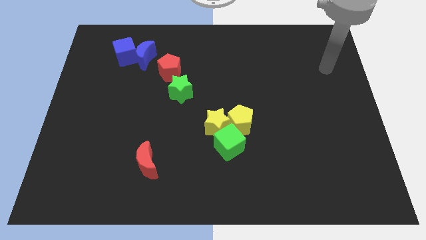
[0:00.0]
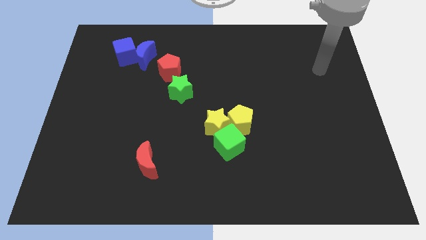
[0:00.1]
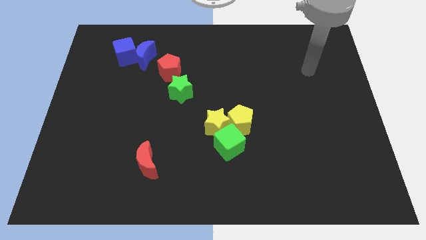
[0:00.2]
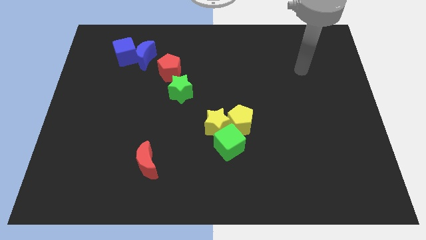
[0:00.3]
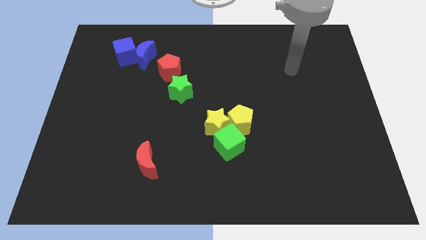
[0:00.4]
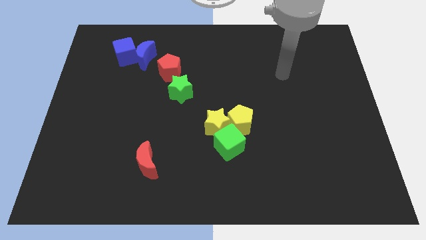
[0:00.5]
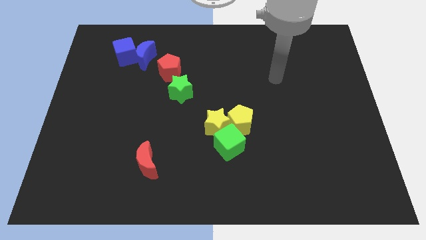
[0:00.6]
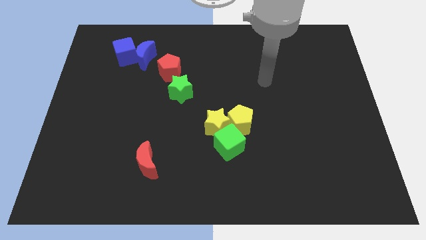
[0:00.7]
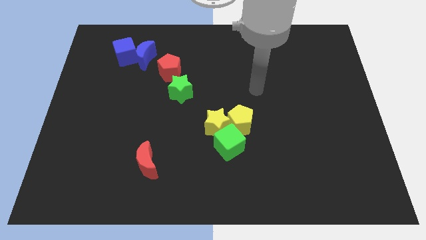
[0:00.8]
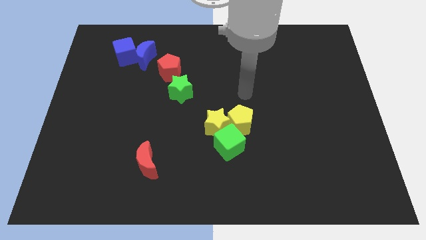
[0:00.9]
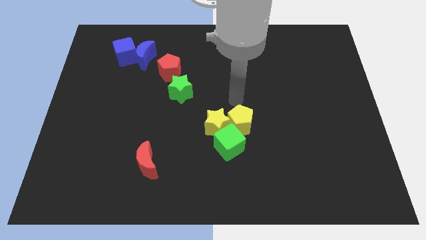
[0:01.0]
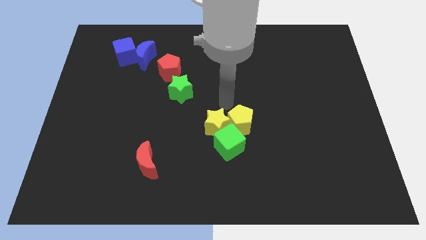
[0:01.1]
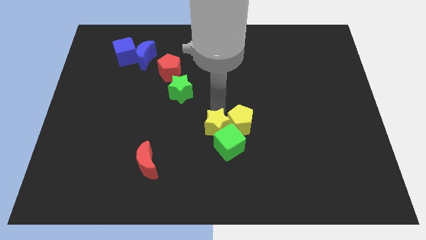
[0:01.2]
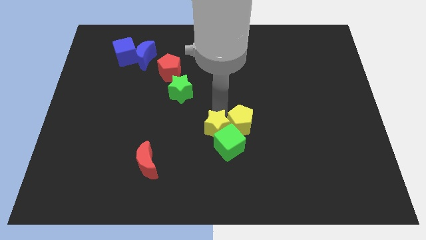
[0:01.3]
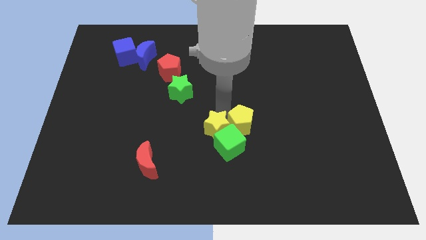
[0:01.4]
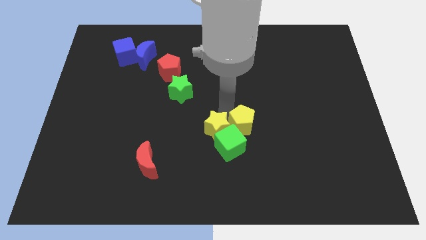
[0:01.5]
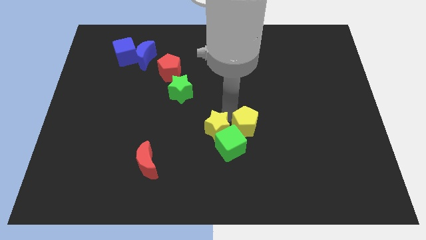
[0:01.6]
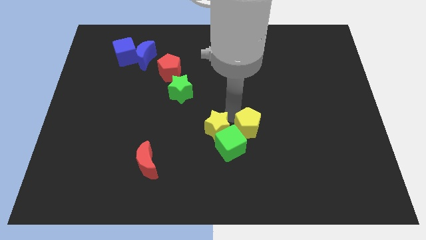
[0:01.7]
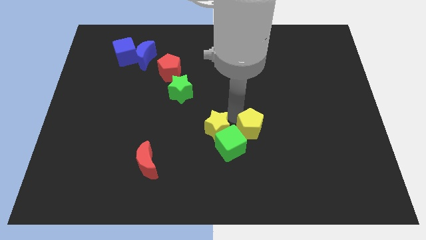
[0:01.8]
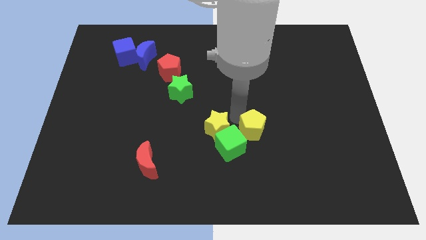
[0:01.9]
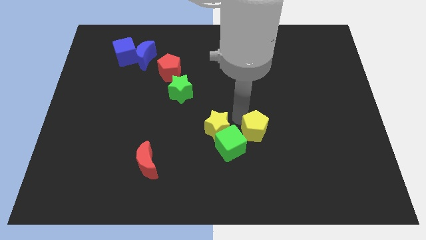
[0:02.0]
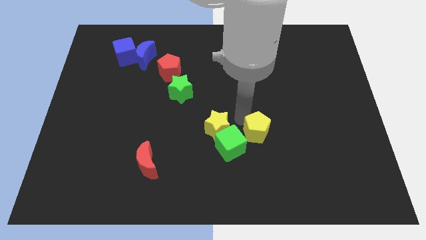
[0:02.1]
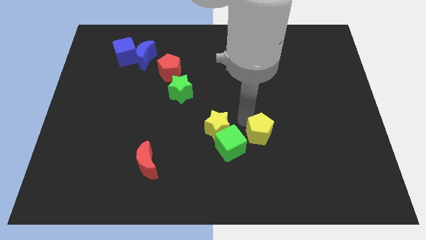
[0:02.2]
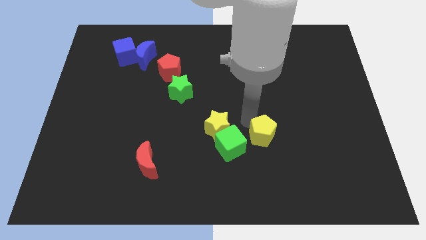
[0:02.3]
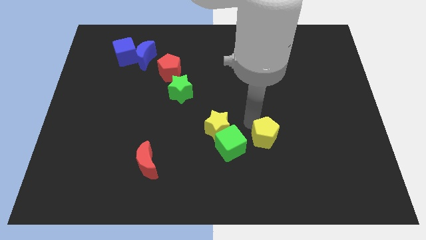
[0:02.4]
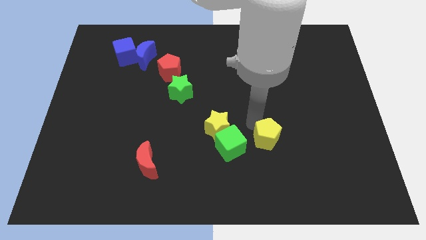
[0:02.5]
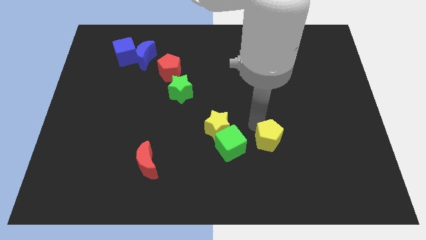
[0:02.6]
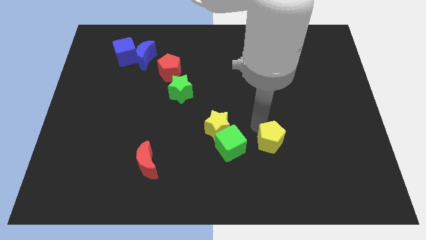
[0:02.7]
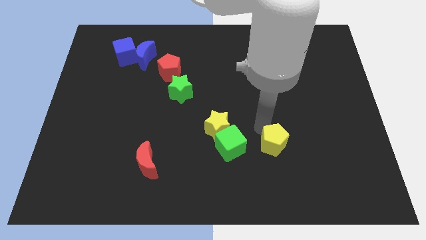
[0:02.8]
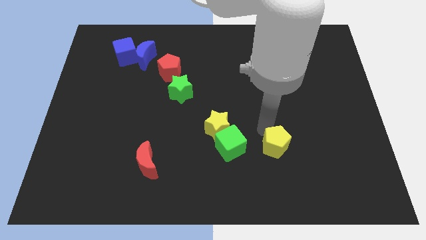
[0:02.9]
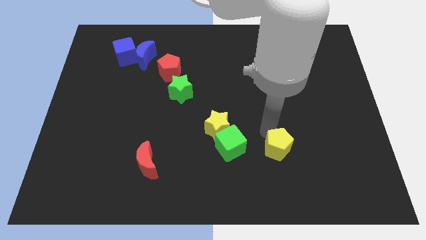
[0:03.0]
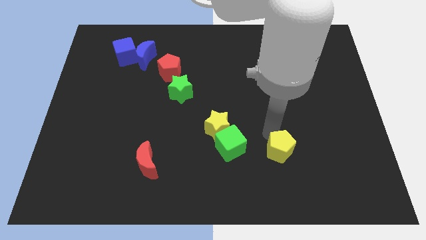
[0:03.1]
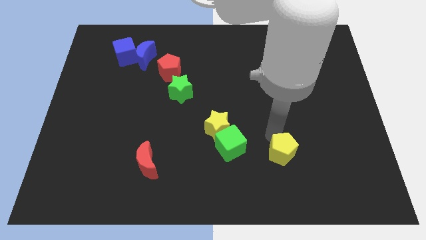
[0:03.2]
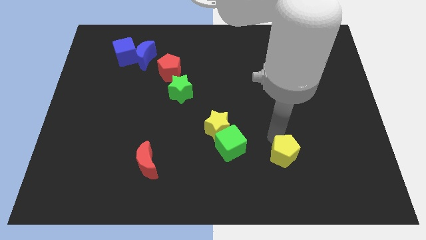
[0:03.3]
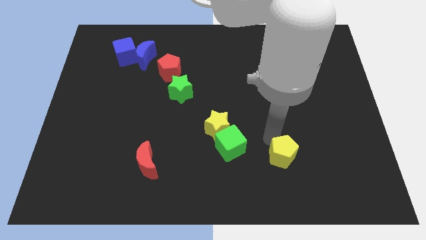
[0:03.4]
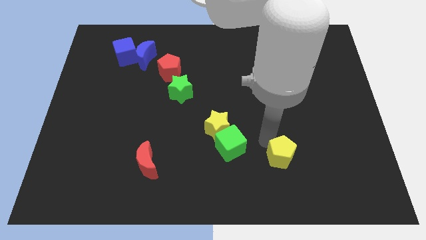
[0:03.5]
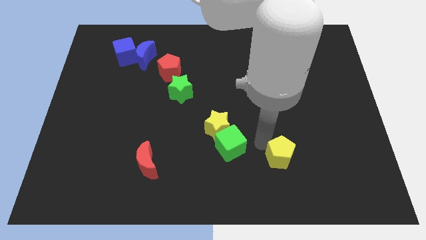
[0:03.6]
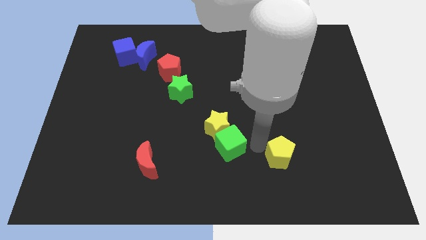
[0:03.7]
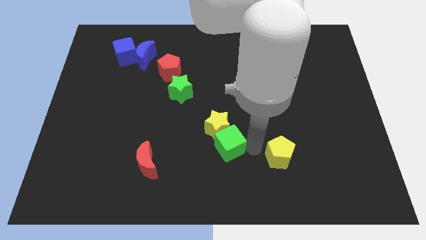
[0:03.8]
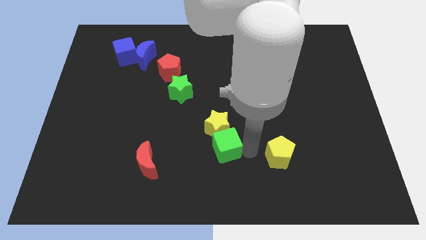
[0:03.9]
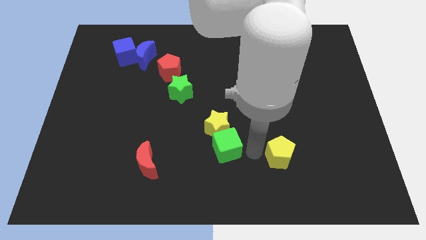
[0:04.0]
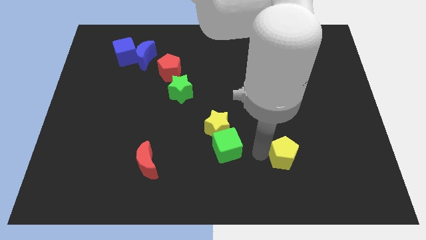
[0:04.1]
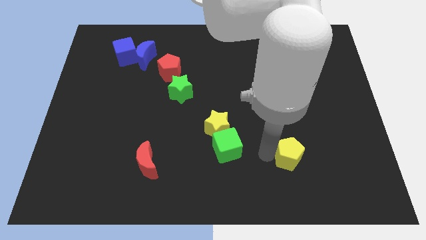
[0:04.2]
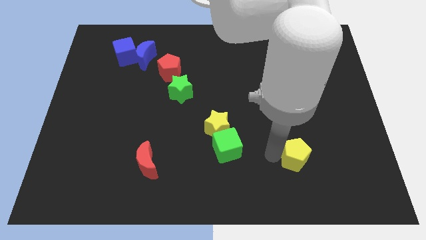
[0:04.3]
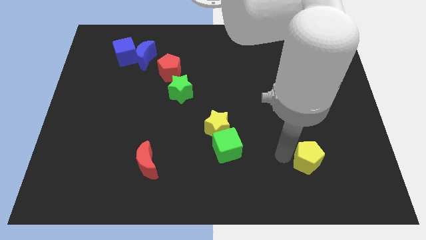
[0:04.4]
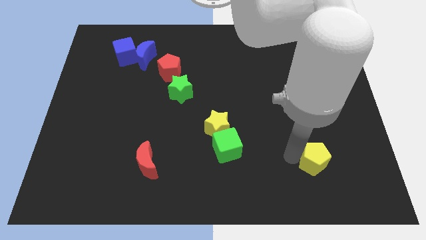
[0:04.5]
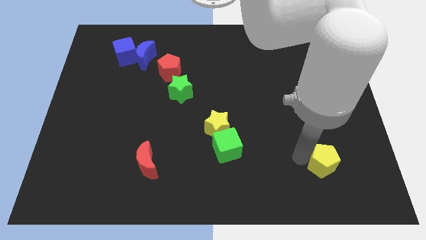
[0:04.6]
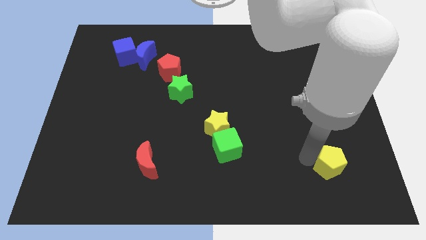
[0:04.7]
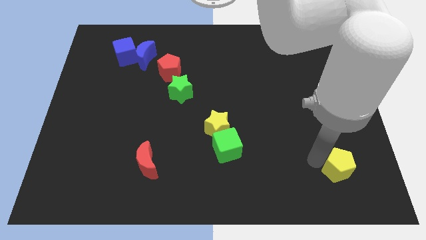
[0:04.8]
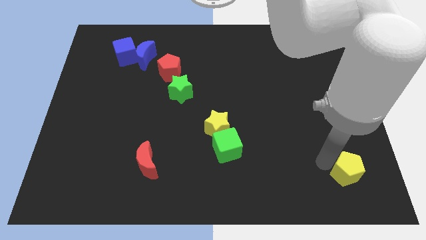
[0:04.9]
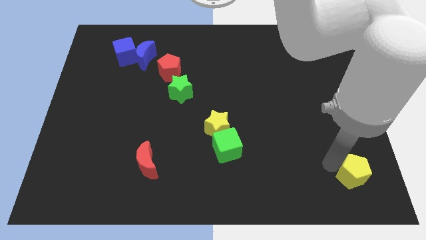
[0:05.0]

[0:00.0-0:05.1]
put the yellow pentagon to the lower right corner

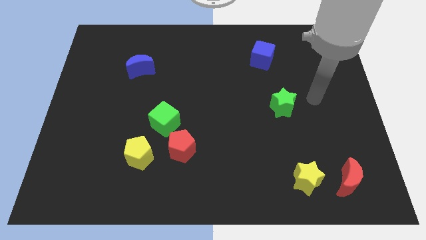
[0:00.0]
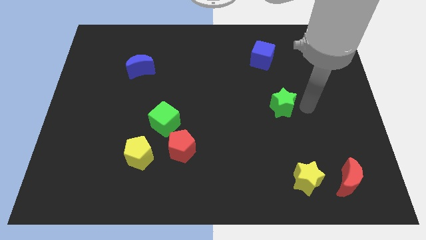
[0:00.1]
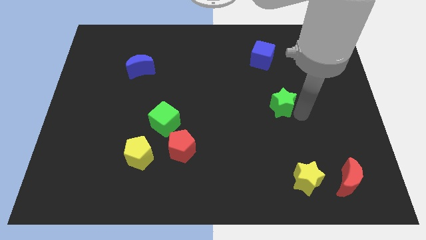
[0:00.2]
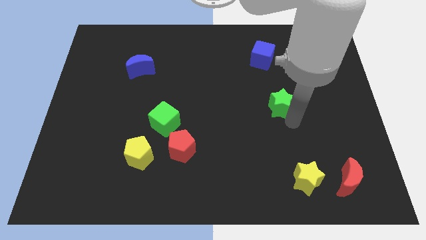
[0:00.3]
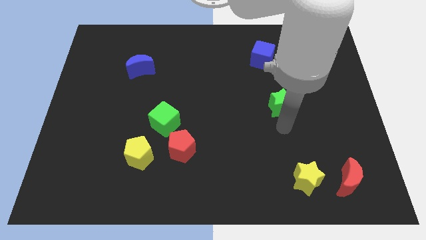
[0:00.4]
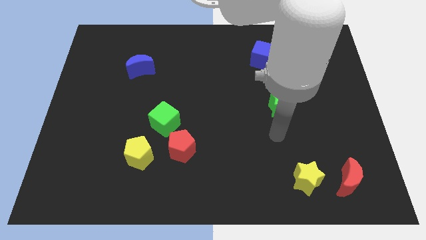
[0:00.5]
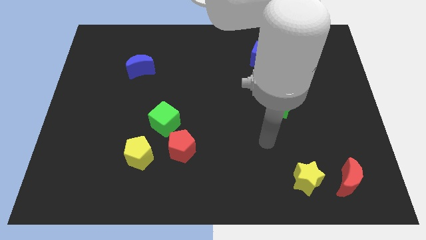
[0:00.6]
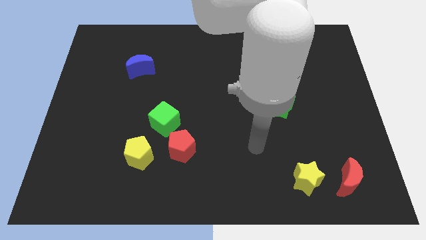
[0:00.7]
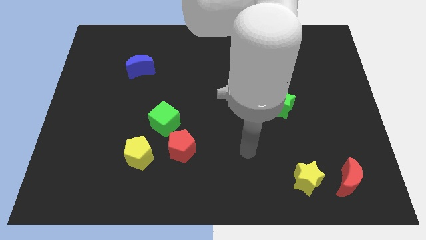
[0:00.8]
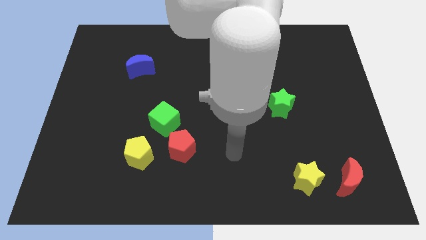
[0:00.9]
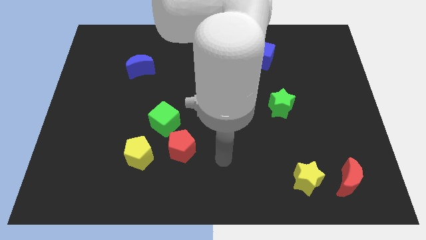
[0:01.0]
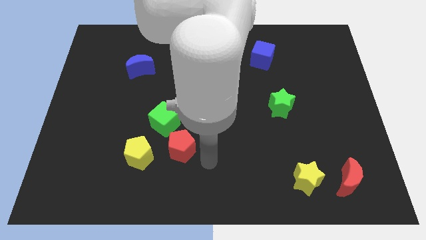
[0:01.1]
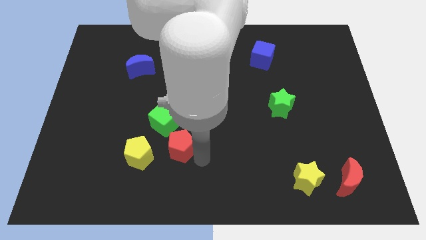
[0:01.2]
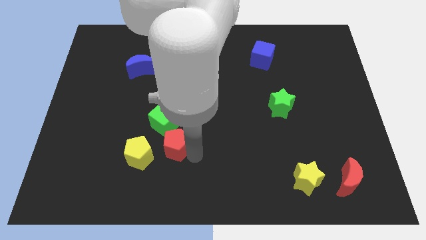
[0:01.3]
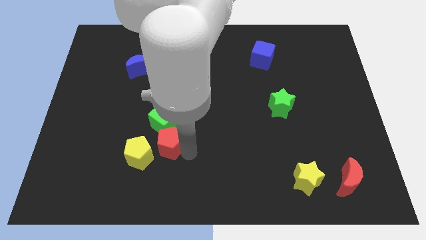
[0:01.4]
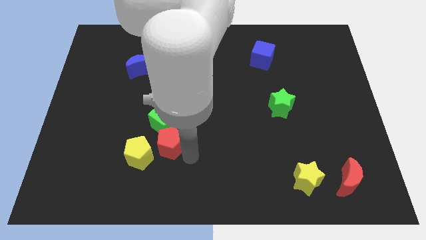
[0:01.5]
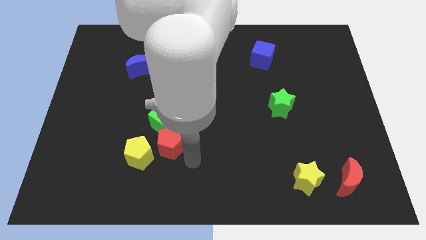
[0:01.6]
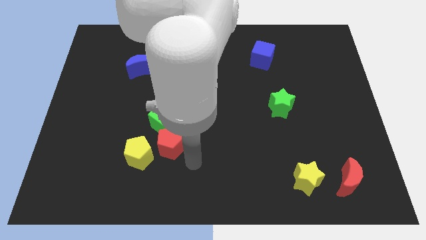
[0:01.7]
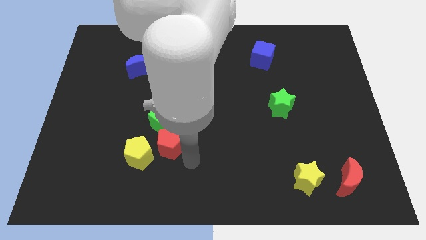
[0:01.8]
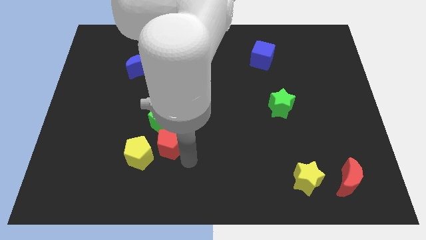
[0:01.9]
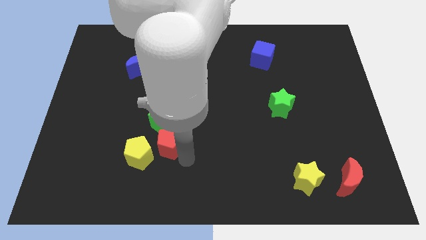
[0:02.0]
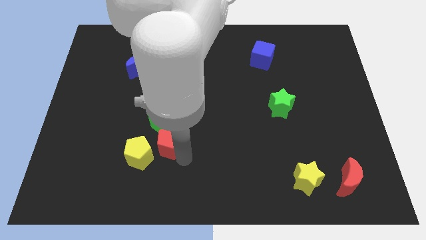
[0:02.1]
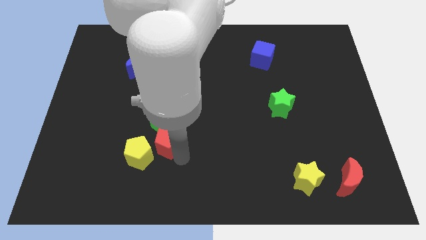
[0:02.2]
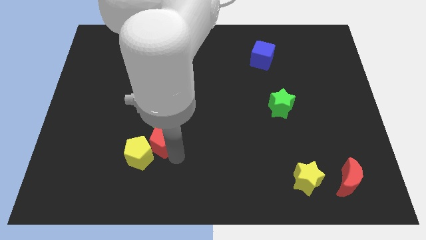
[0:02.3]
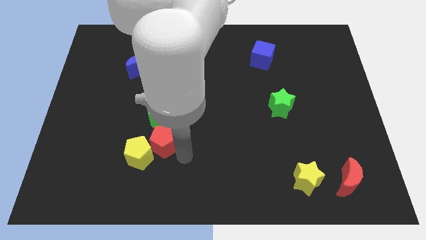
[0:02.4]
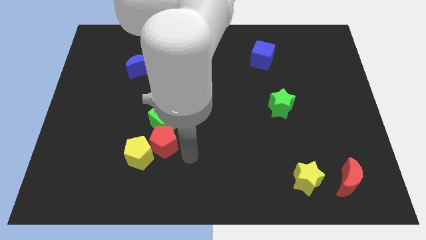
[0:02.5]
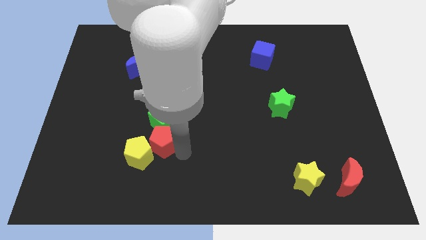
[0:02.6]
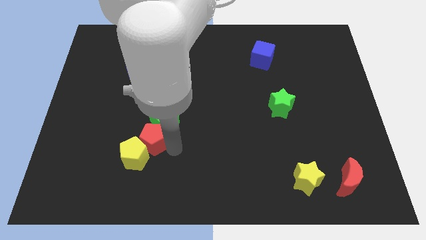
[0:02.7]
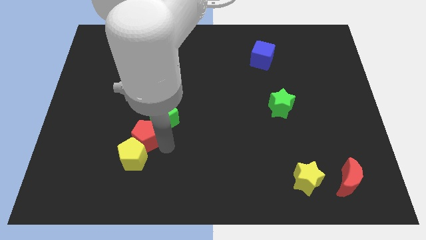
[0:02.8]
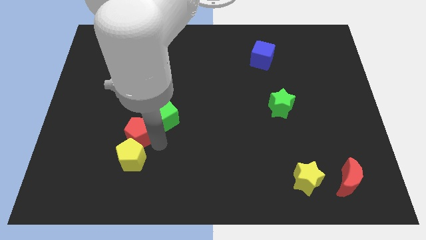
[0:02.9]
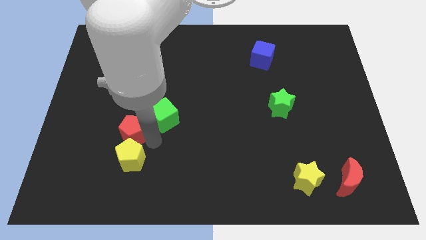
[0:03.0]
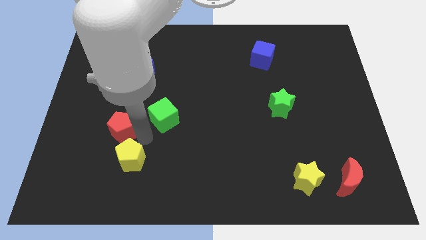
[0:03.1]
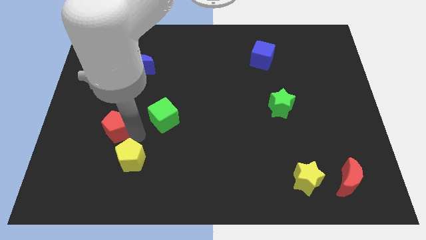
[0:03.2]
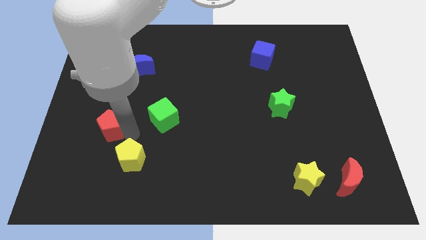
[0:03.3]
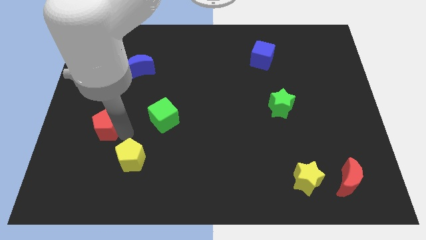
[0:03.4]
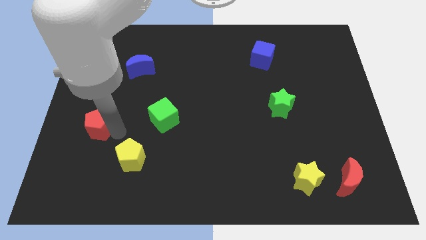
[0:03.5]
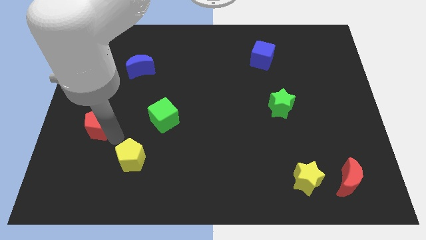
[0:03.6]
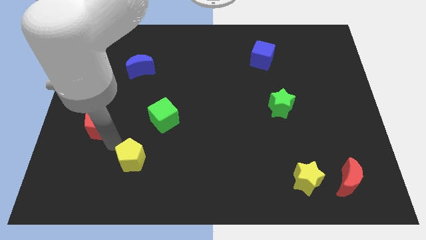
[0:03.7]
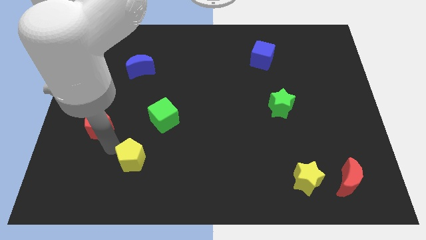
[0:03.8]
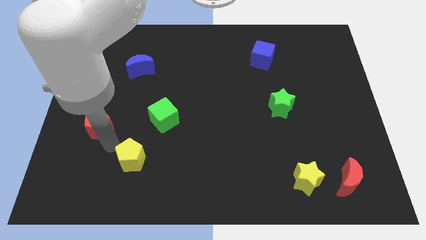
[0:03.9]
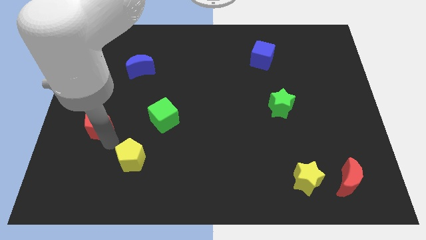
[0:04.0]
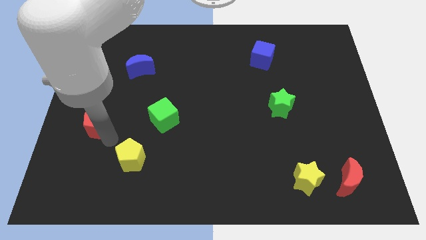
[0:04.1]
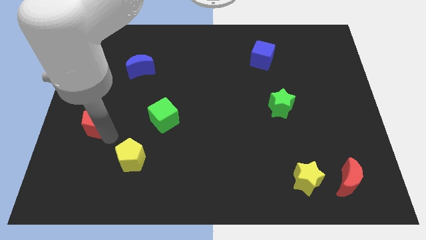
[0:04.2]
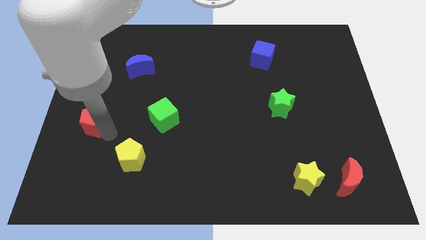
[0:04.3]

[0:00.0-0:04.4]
put the red pentagon to the left side of the board
